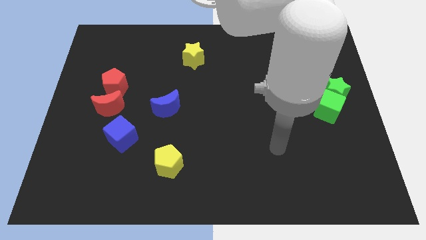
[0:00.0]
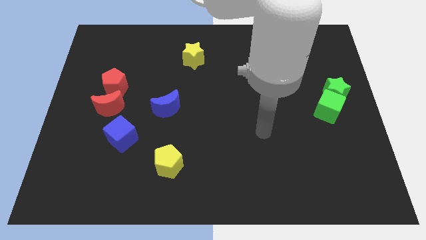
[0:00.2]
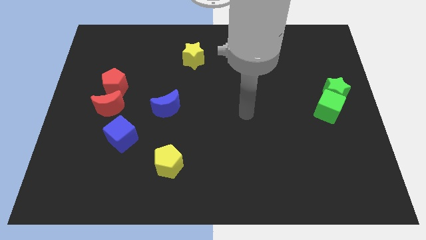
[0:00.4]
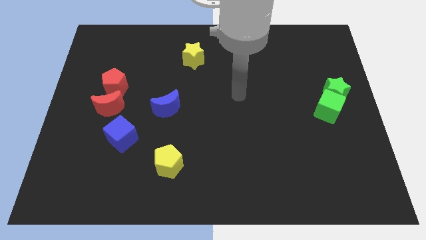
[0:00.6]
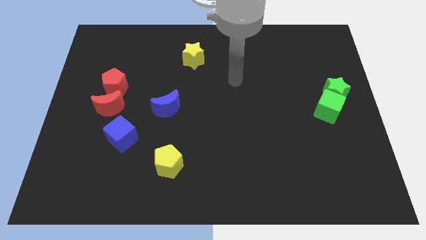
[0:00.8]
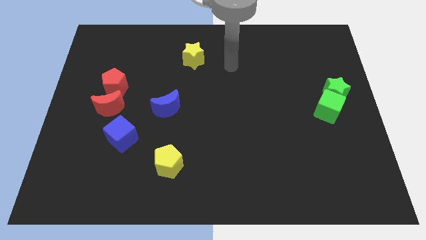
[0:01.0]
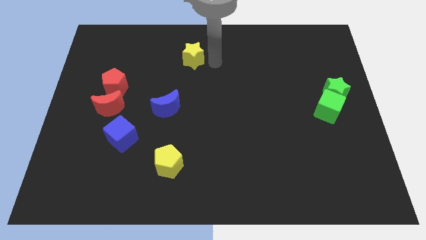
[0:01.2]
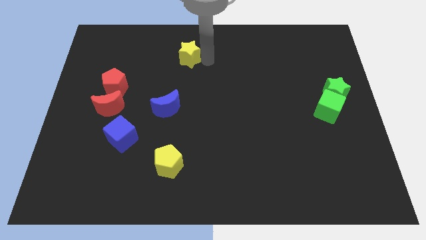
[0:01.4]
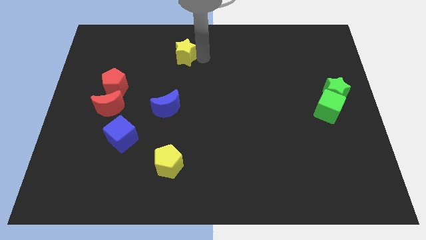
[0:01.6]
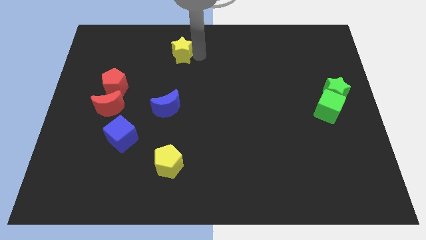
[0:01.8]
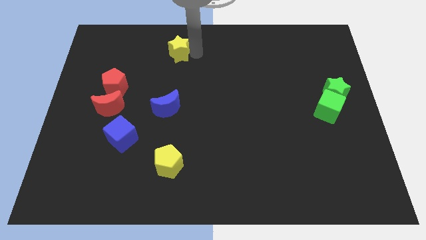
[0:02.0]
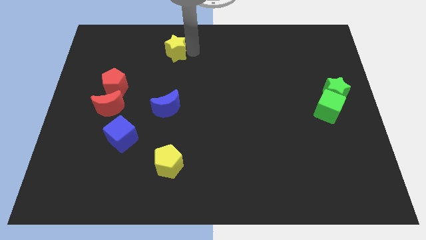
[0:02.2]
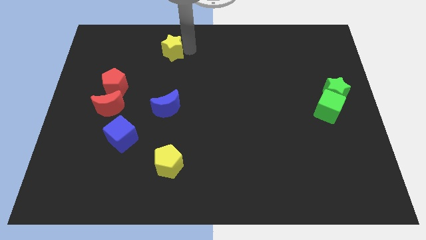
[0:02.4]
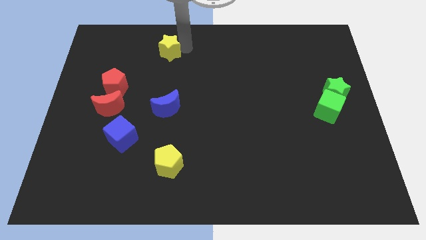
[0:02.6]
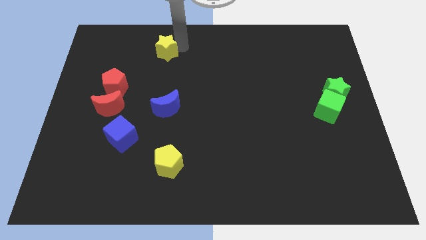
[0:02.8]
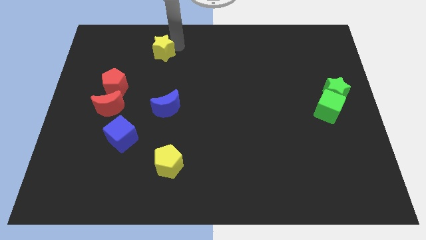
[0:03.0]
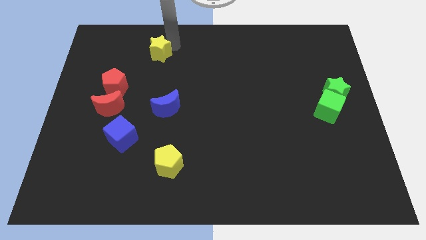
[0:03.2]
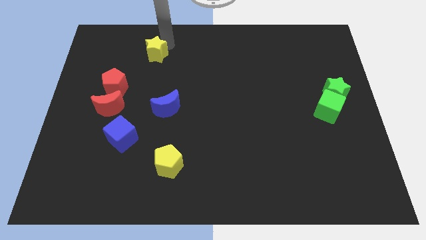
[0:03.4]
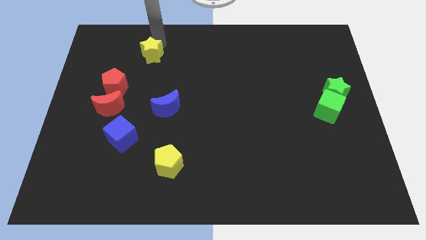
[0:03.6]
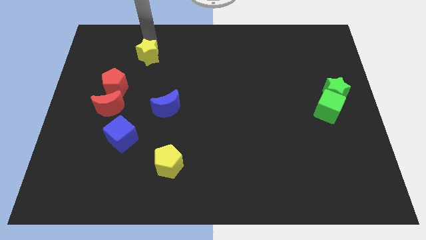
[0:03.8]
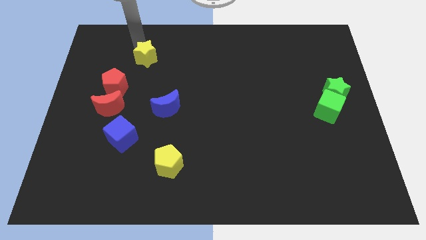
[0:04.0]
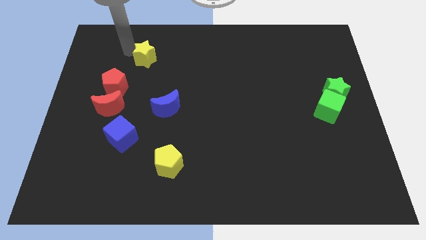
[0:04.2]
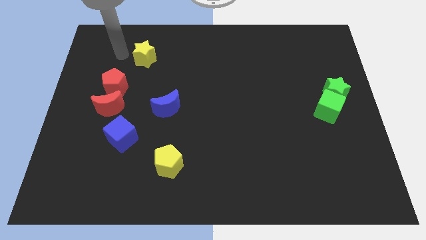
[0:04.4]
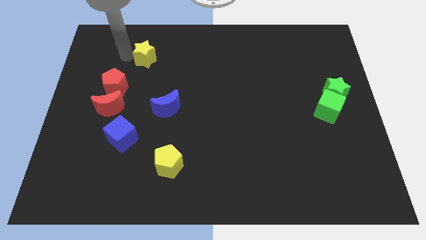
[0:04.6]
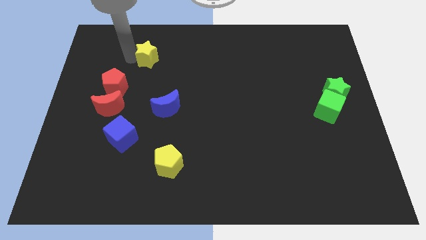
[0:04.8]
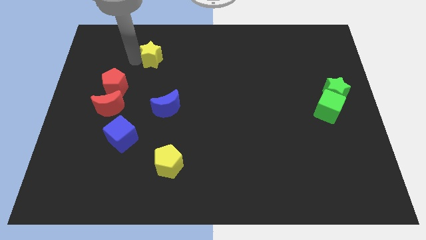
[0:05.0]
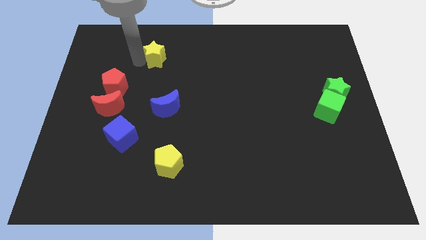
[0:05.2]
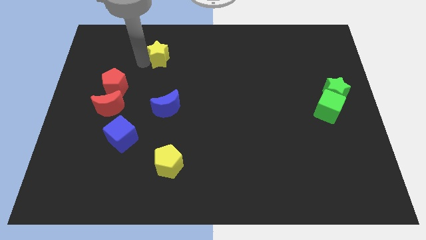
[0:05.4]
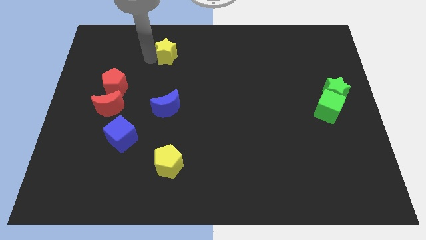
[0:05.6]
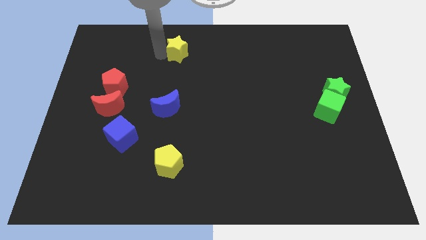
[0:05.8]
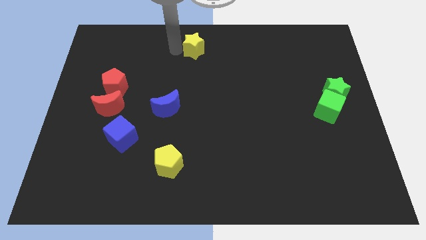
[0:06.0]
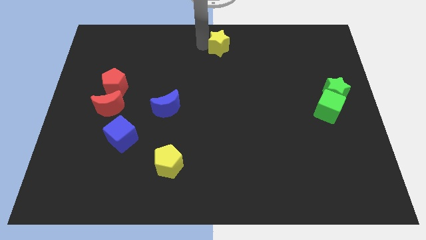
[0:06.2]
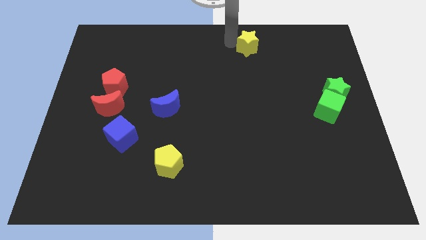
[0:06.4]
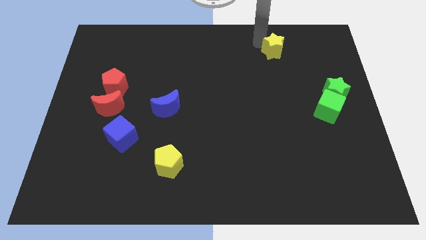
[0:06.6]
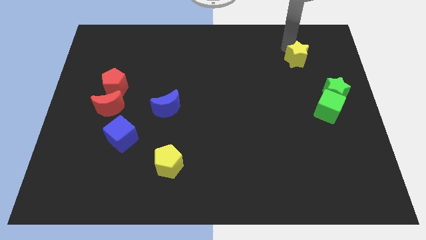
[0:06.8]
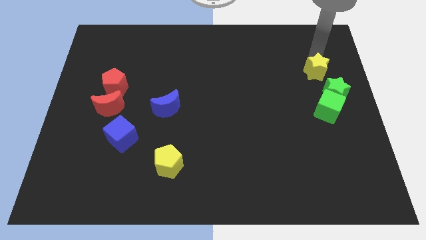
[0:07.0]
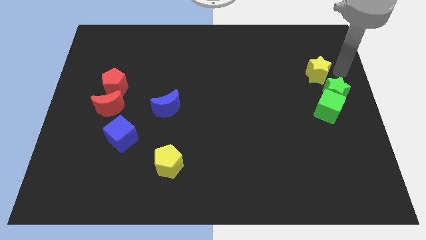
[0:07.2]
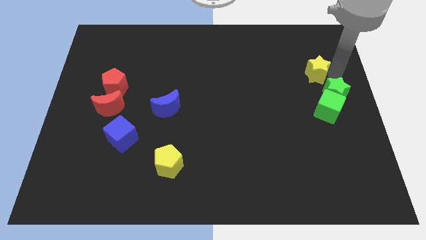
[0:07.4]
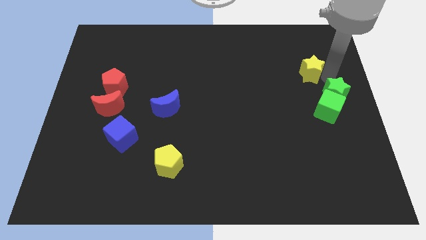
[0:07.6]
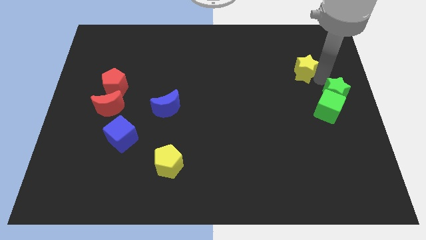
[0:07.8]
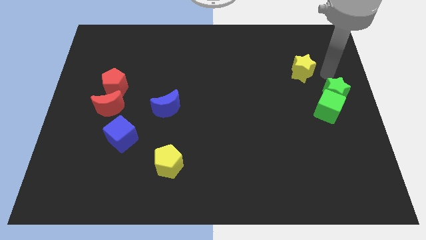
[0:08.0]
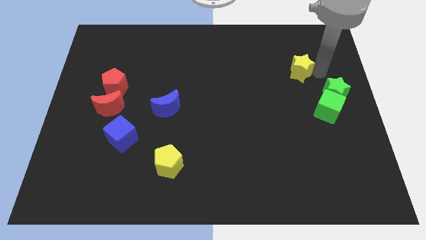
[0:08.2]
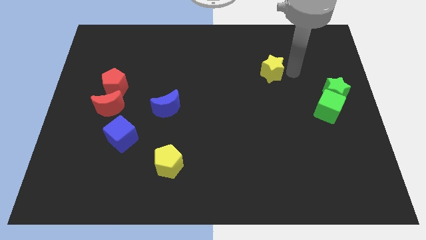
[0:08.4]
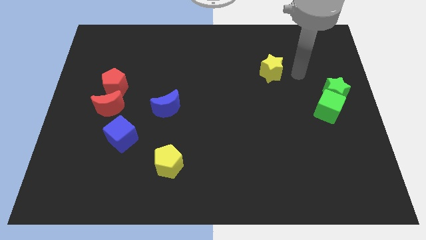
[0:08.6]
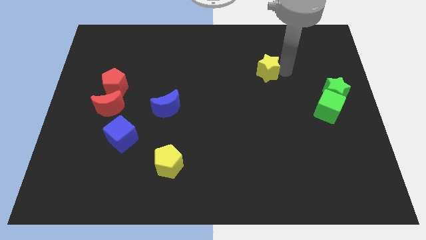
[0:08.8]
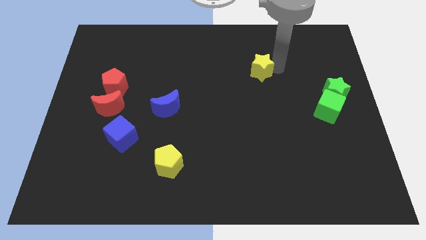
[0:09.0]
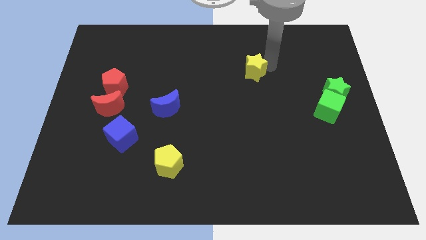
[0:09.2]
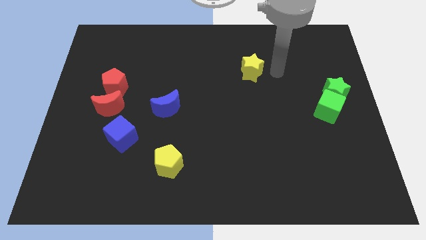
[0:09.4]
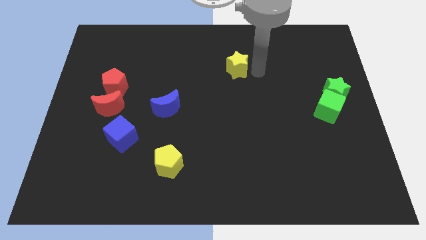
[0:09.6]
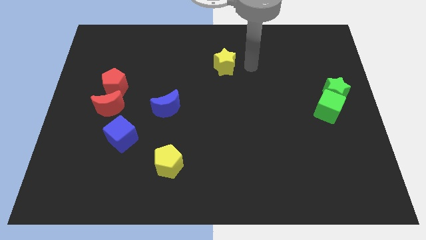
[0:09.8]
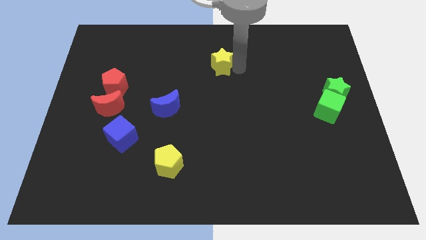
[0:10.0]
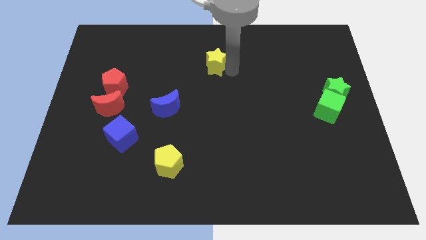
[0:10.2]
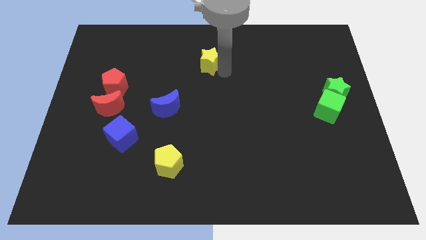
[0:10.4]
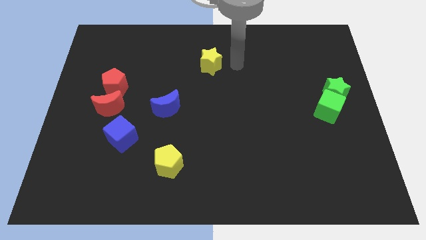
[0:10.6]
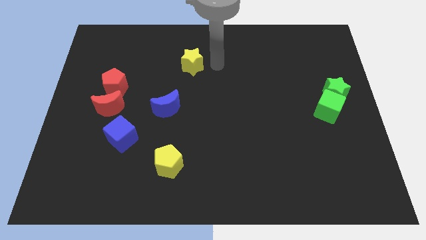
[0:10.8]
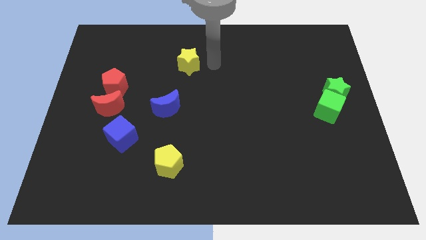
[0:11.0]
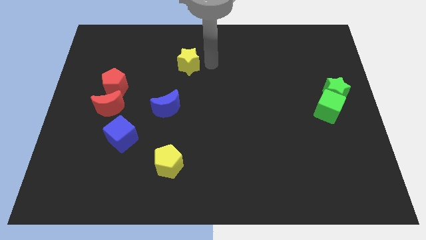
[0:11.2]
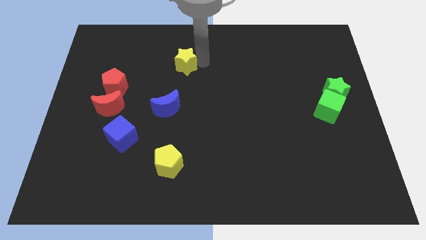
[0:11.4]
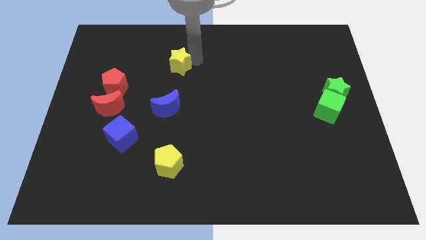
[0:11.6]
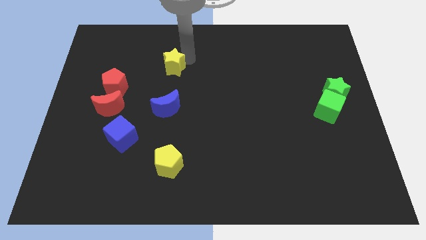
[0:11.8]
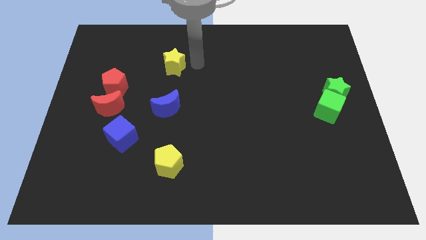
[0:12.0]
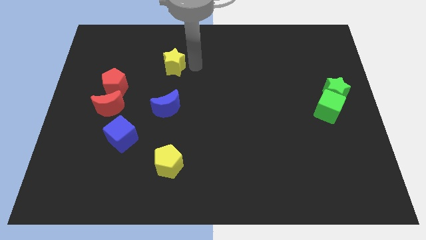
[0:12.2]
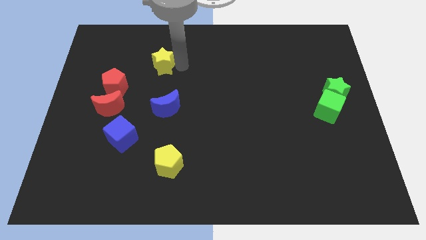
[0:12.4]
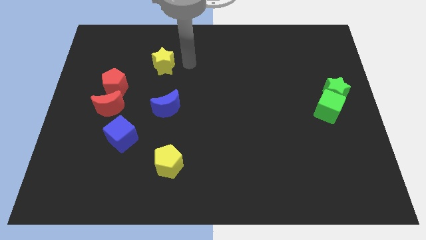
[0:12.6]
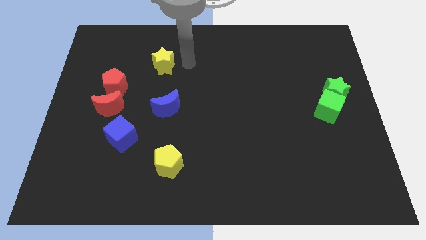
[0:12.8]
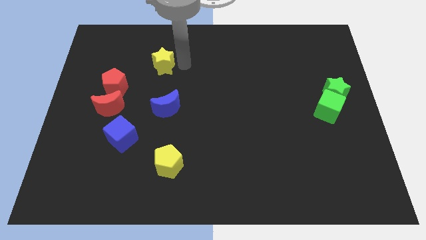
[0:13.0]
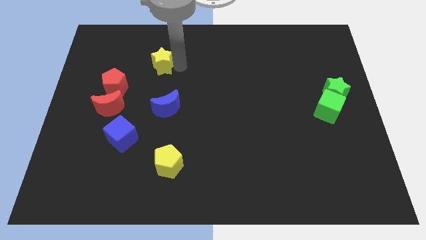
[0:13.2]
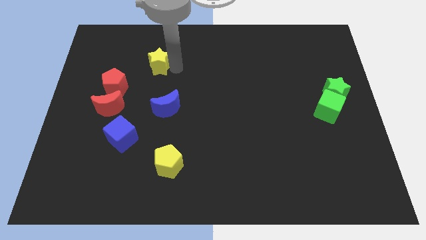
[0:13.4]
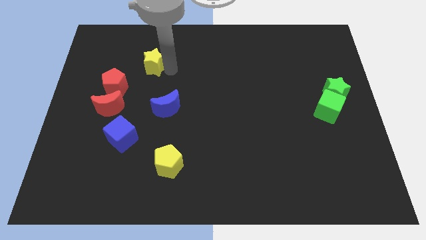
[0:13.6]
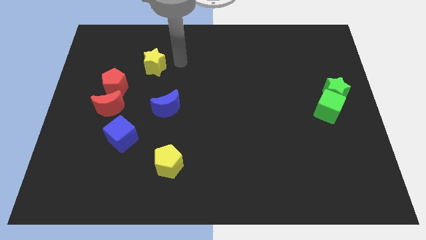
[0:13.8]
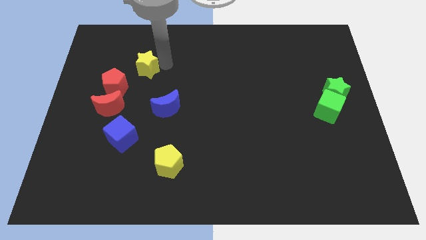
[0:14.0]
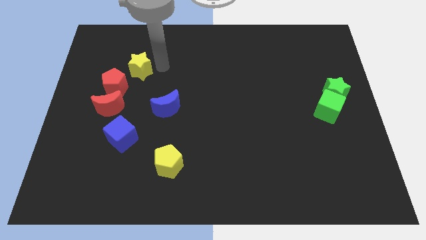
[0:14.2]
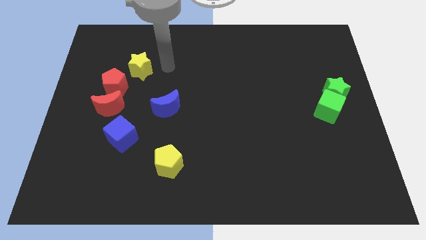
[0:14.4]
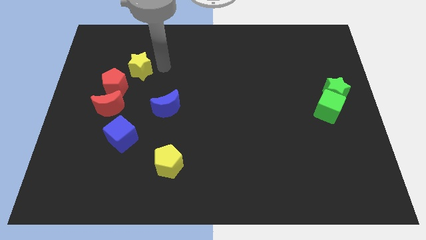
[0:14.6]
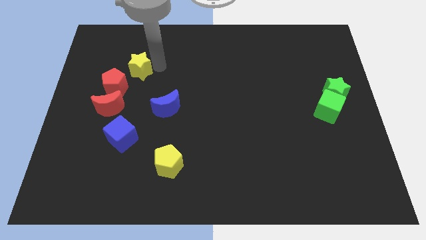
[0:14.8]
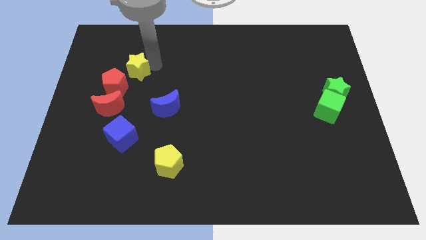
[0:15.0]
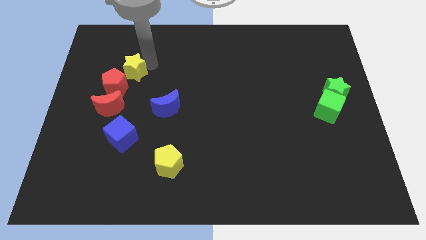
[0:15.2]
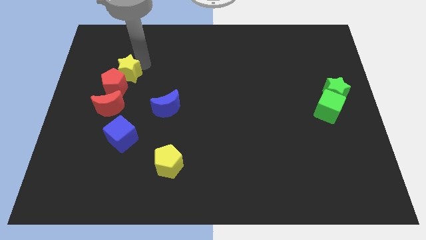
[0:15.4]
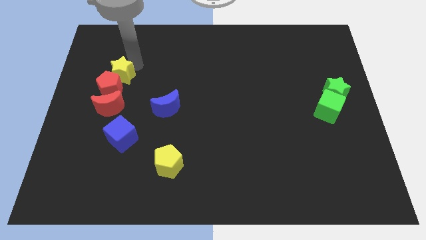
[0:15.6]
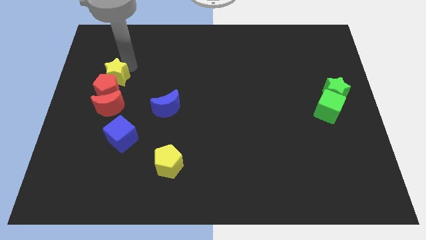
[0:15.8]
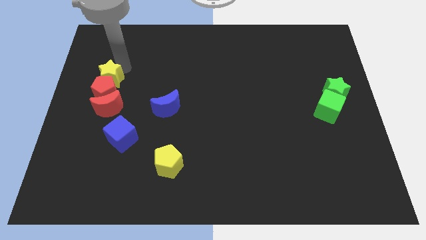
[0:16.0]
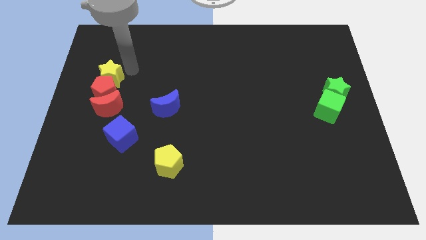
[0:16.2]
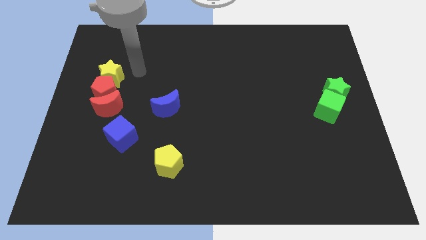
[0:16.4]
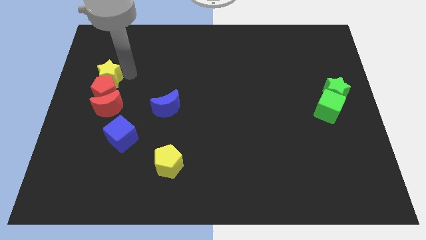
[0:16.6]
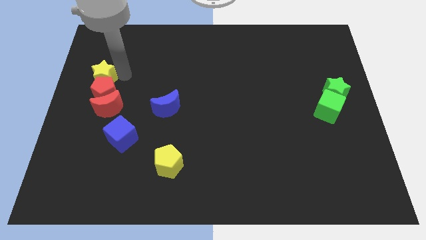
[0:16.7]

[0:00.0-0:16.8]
slide the yellow star to the center left
